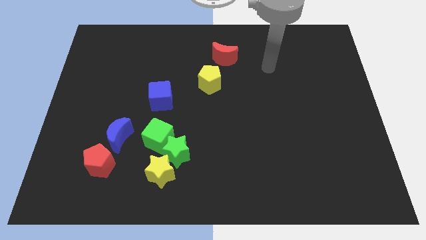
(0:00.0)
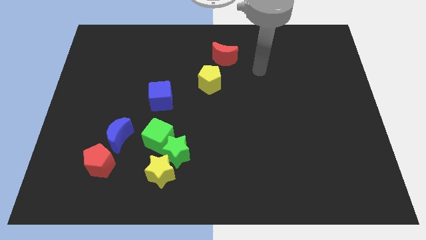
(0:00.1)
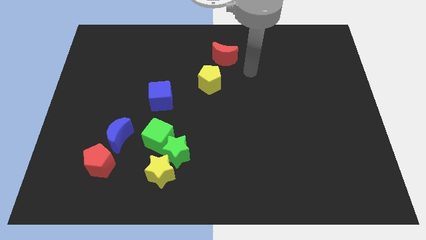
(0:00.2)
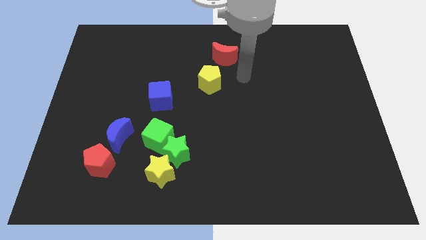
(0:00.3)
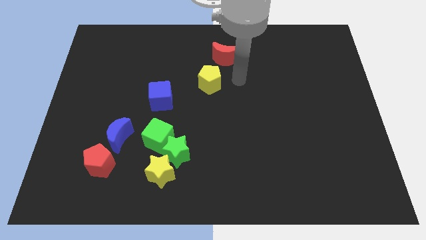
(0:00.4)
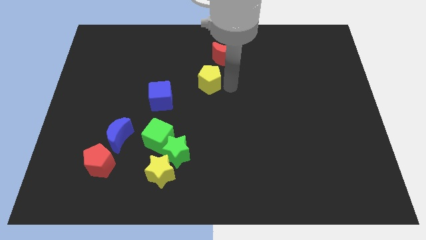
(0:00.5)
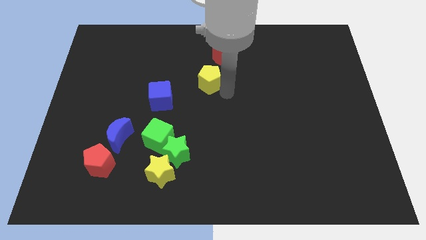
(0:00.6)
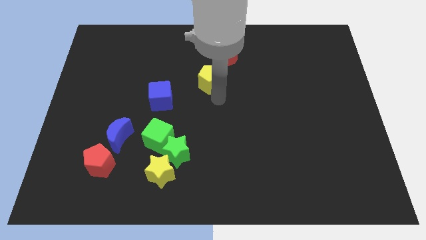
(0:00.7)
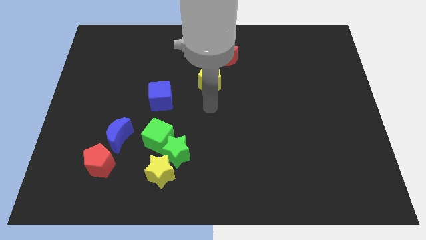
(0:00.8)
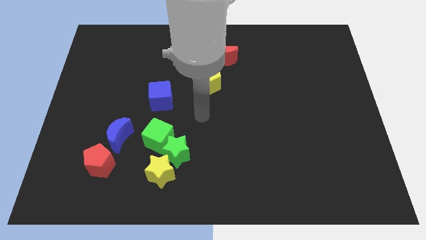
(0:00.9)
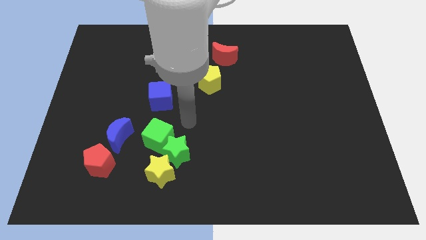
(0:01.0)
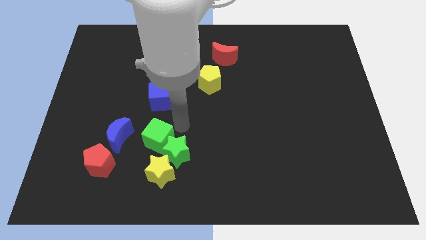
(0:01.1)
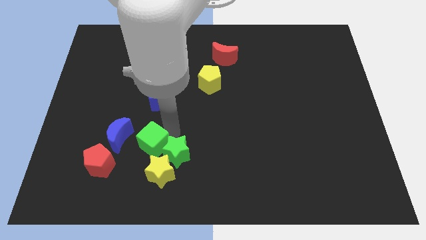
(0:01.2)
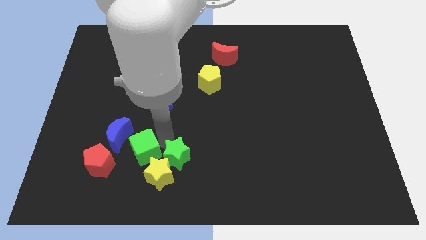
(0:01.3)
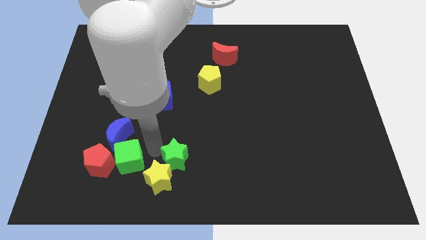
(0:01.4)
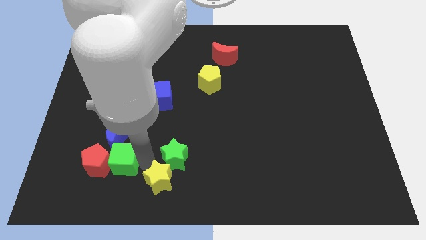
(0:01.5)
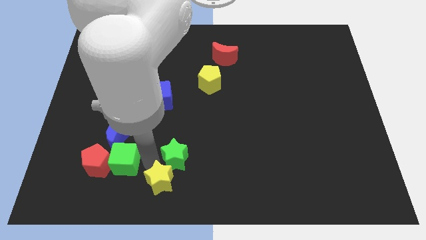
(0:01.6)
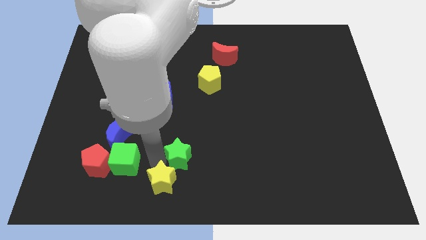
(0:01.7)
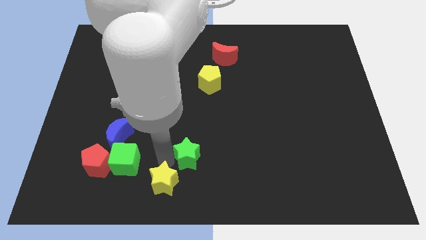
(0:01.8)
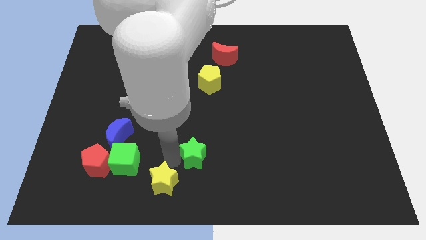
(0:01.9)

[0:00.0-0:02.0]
separate the green star from the yellow star and green cube

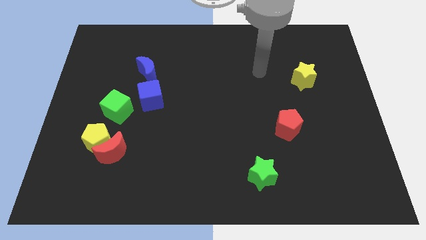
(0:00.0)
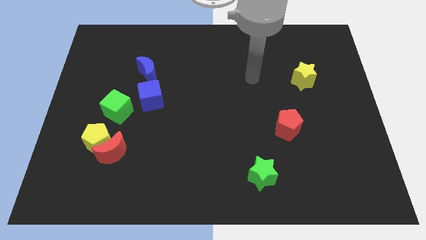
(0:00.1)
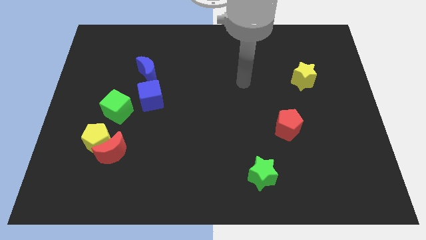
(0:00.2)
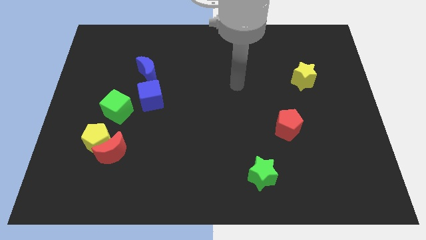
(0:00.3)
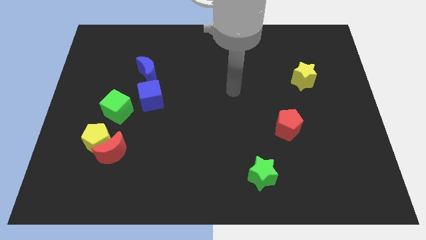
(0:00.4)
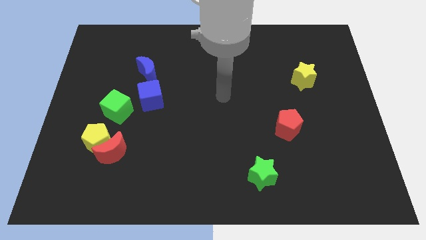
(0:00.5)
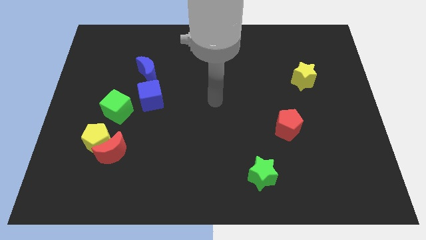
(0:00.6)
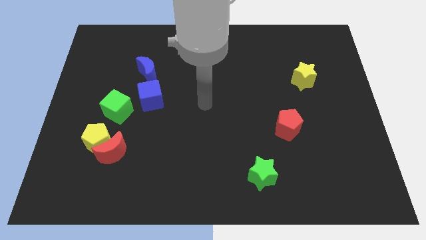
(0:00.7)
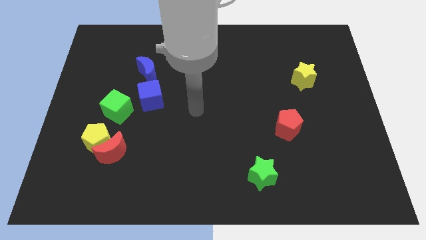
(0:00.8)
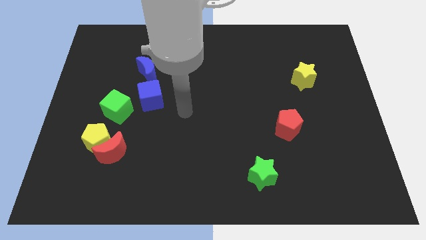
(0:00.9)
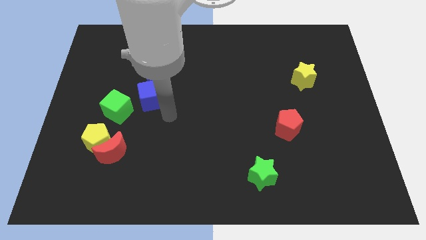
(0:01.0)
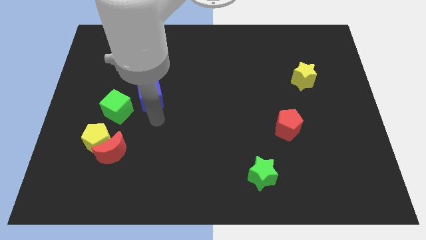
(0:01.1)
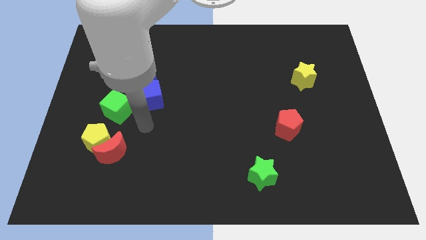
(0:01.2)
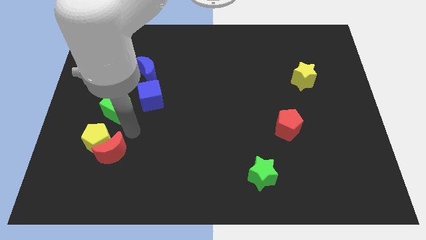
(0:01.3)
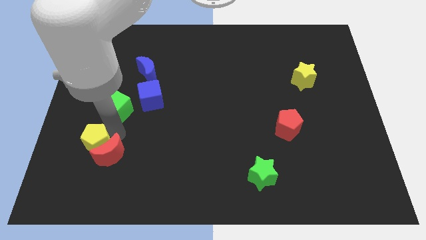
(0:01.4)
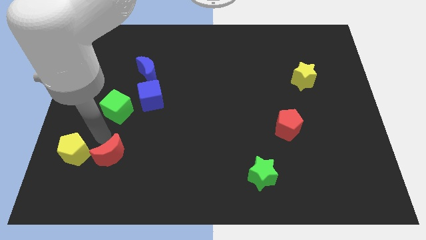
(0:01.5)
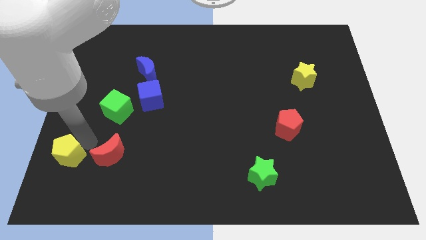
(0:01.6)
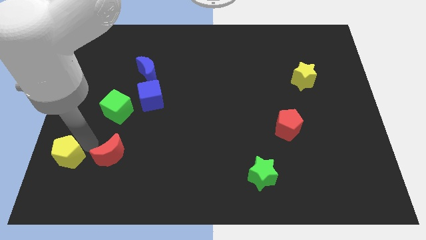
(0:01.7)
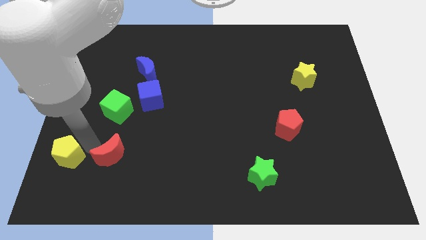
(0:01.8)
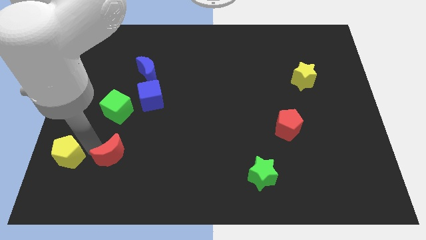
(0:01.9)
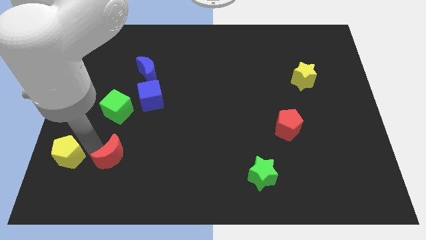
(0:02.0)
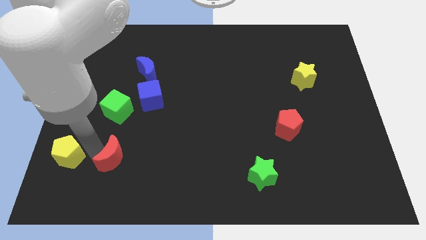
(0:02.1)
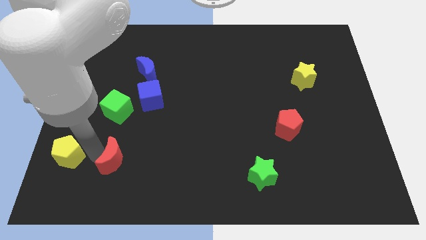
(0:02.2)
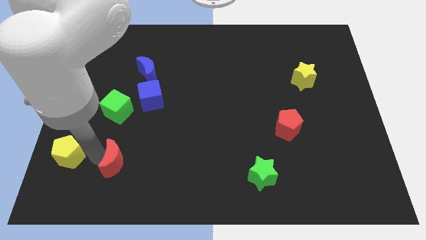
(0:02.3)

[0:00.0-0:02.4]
move the red moon away from the yellow pentagon

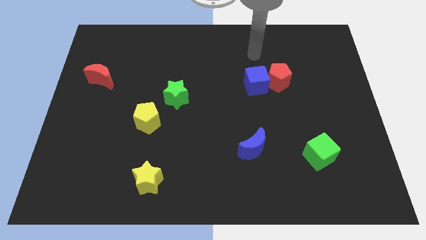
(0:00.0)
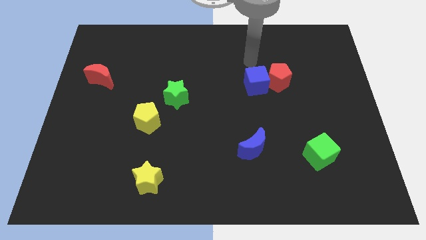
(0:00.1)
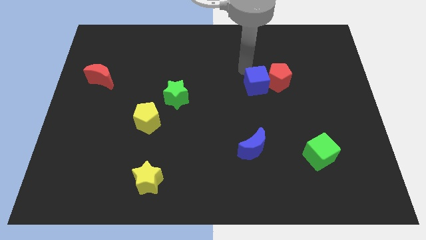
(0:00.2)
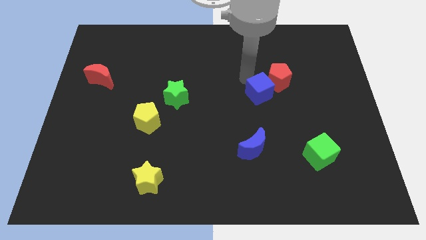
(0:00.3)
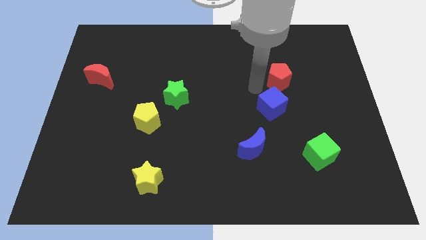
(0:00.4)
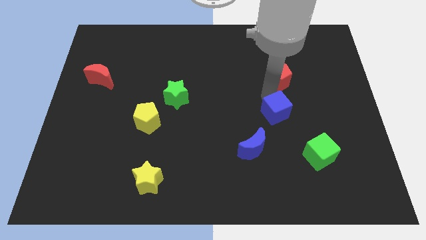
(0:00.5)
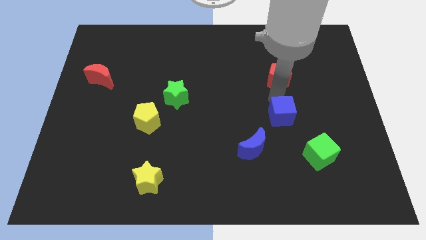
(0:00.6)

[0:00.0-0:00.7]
separate the red pentagon from the blue cube

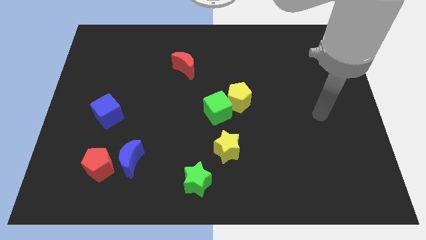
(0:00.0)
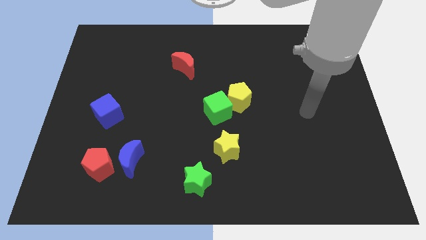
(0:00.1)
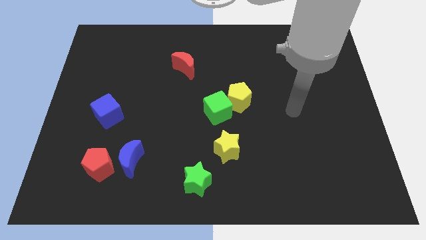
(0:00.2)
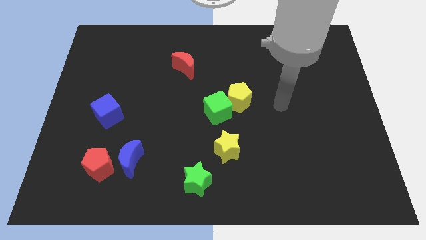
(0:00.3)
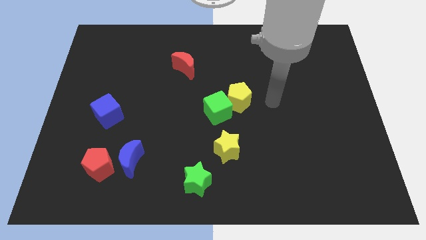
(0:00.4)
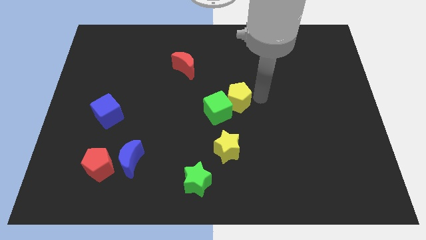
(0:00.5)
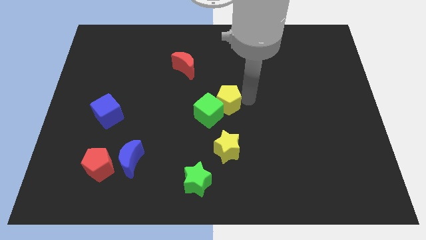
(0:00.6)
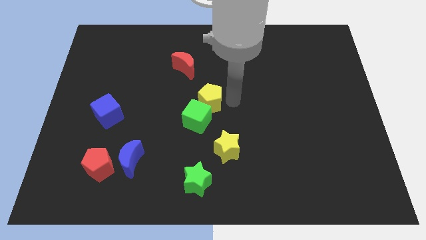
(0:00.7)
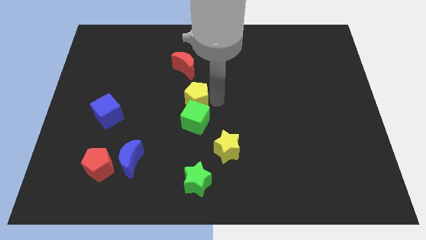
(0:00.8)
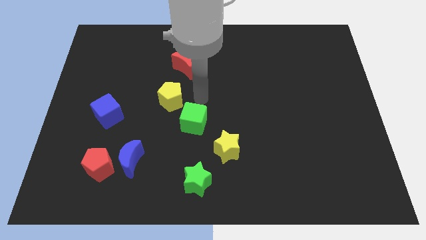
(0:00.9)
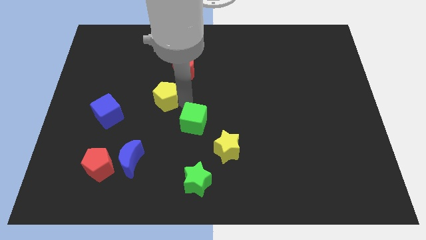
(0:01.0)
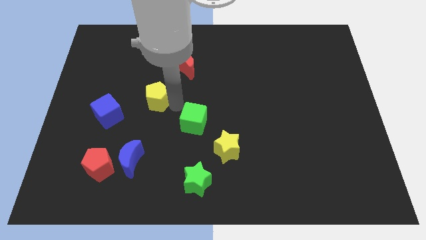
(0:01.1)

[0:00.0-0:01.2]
move the green cube away from the yellow pentagon

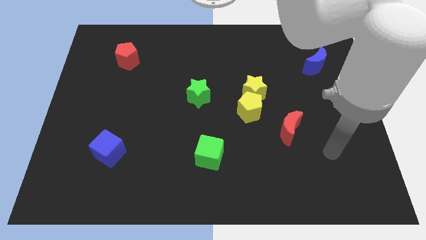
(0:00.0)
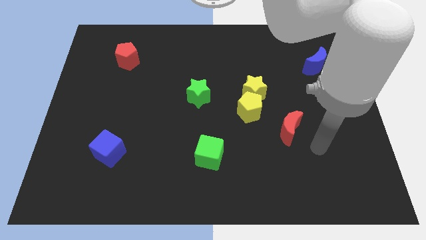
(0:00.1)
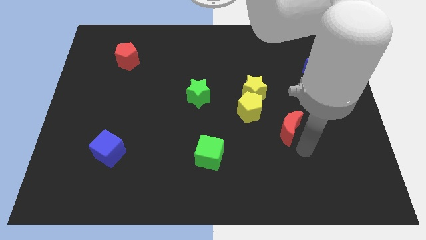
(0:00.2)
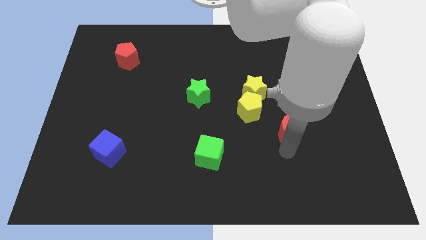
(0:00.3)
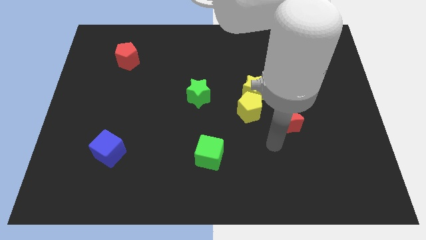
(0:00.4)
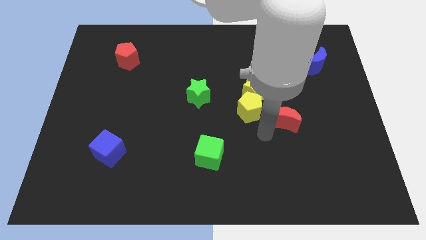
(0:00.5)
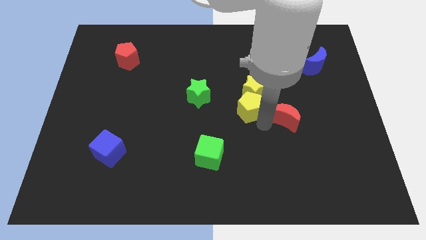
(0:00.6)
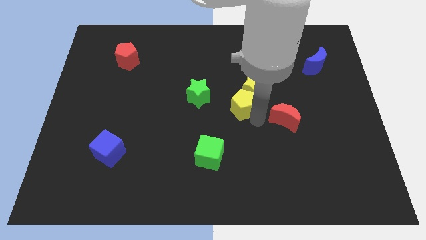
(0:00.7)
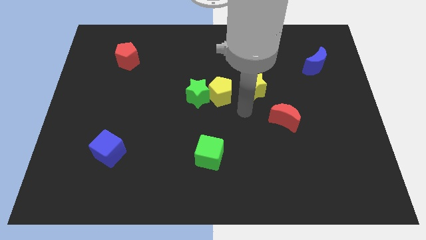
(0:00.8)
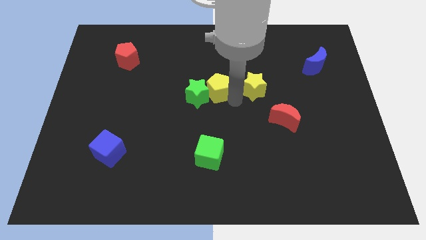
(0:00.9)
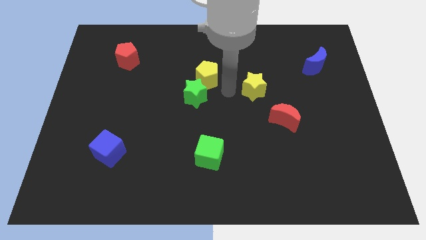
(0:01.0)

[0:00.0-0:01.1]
move the yellow star away from the yellow pentagon

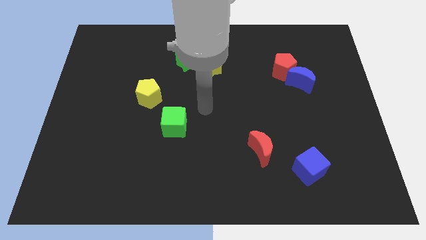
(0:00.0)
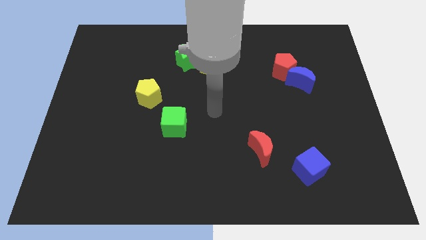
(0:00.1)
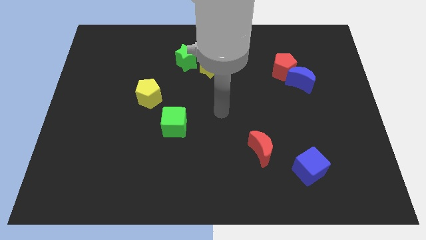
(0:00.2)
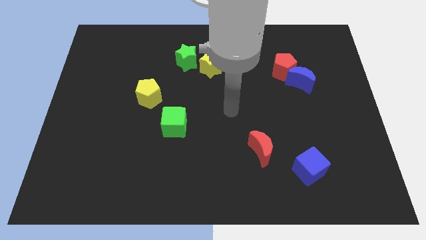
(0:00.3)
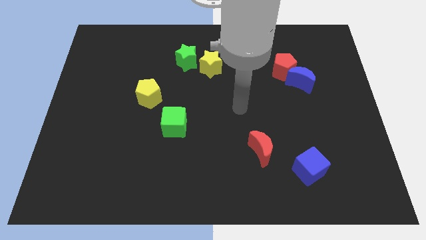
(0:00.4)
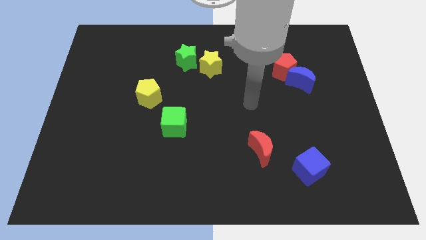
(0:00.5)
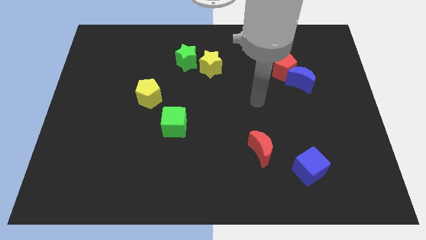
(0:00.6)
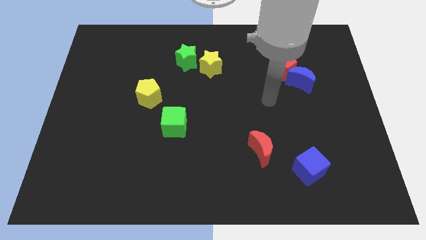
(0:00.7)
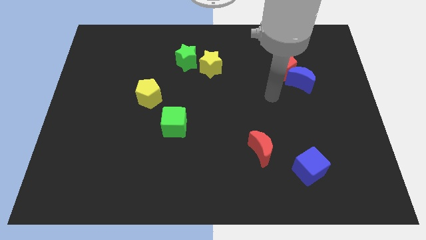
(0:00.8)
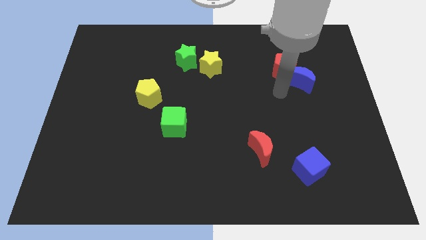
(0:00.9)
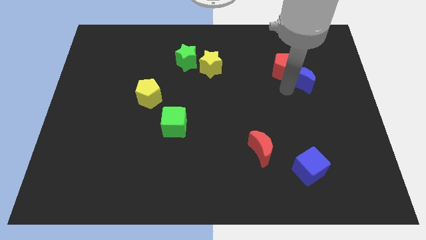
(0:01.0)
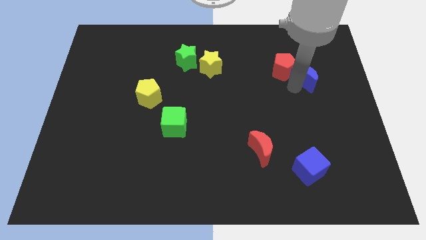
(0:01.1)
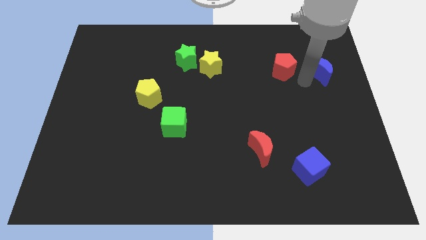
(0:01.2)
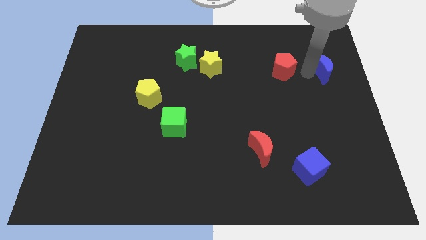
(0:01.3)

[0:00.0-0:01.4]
move the red pentagon away from the blue moon

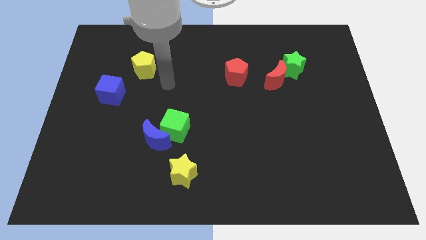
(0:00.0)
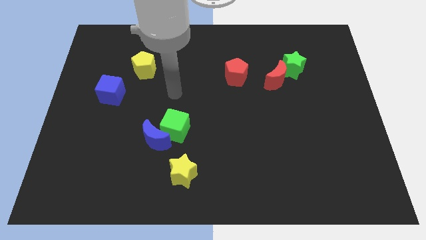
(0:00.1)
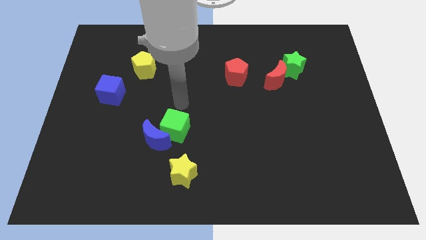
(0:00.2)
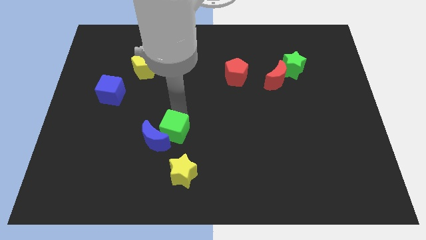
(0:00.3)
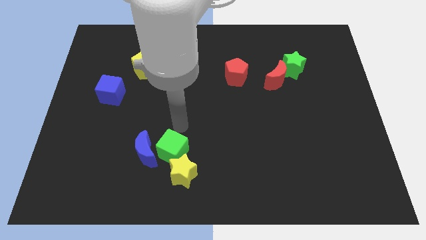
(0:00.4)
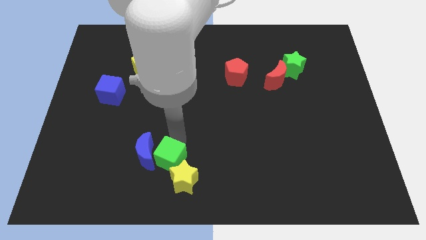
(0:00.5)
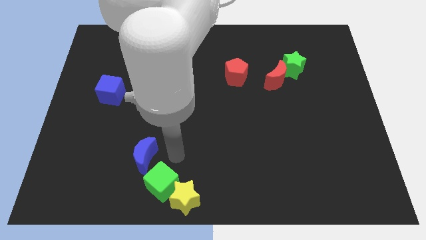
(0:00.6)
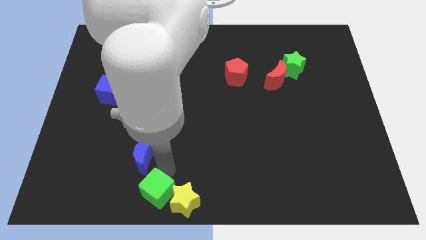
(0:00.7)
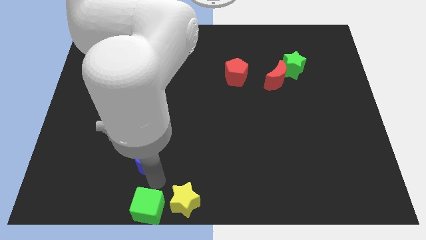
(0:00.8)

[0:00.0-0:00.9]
pull the blue moon apart from the green cube
